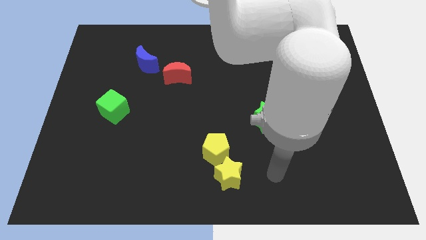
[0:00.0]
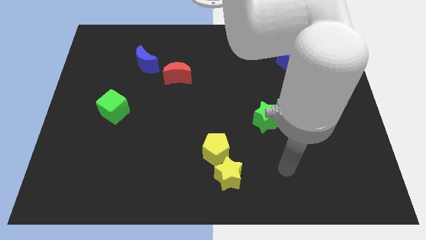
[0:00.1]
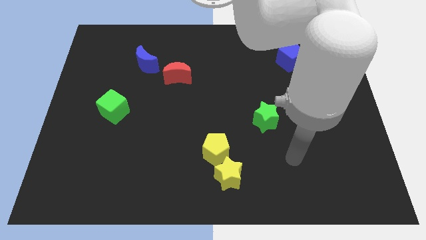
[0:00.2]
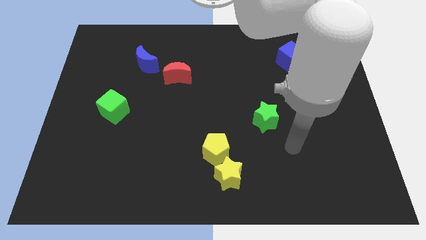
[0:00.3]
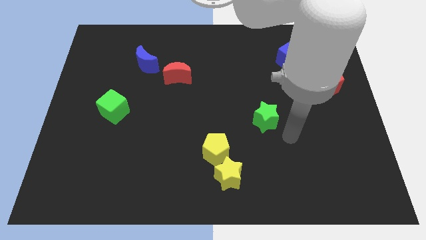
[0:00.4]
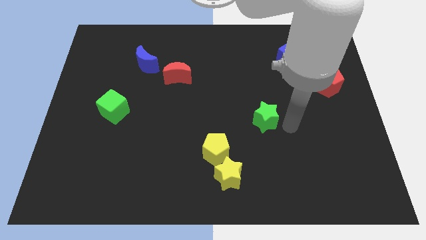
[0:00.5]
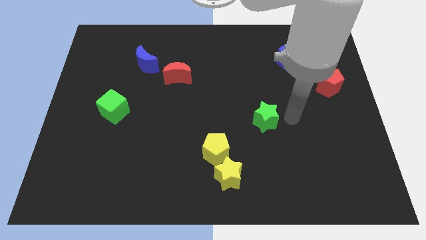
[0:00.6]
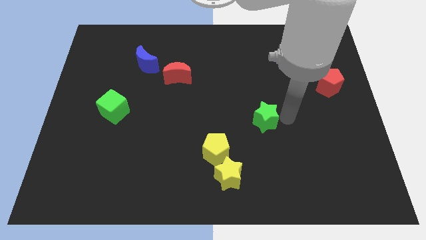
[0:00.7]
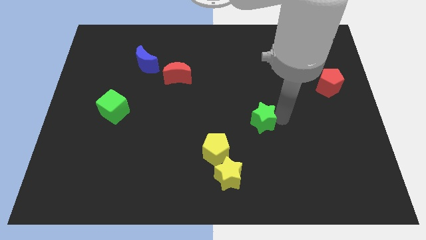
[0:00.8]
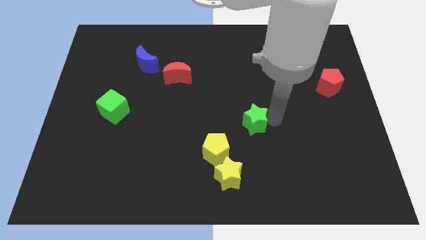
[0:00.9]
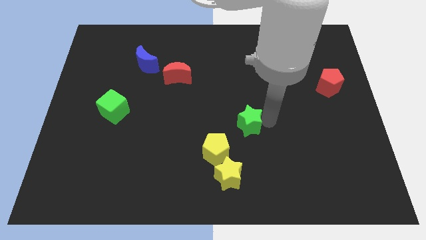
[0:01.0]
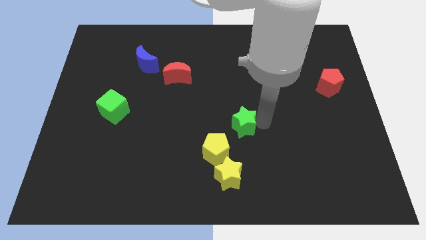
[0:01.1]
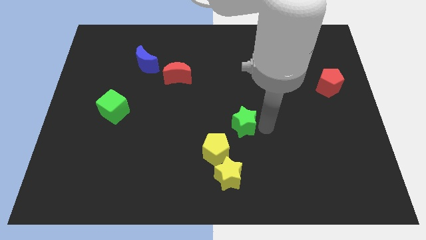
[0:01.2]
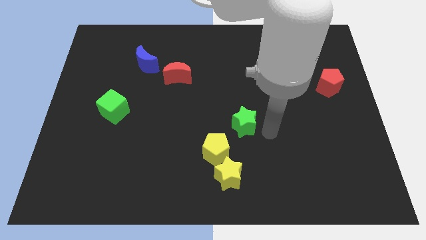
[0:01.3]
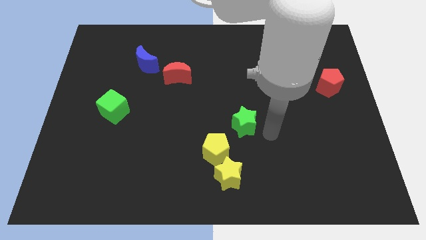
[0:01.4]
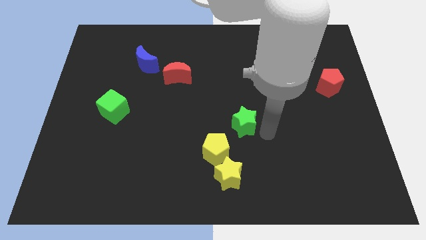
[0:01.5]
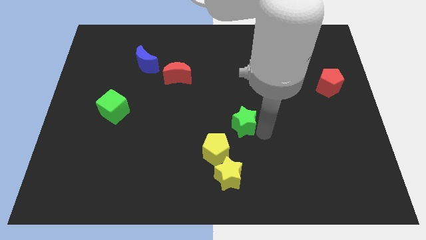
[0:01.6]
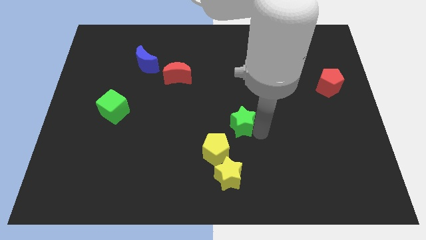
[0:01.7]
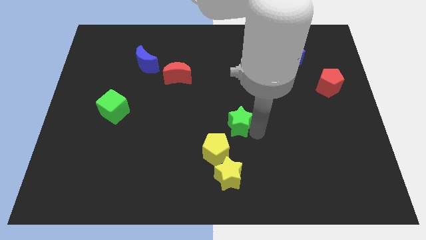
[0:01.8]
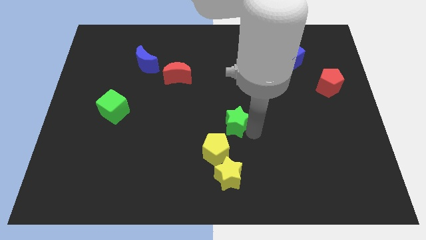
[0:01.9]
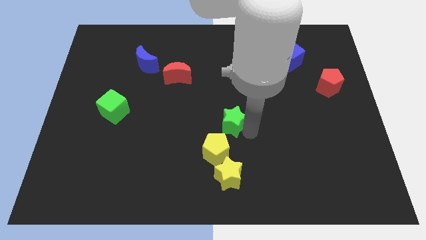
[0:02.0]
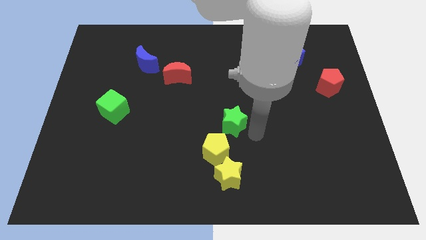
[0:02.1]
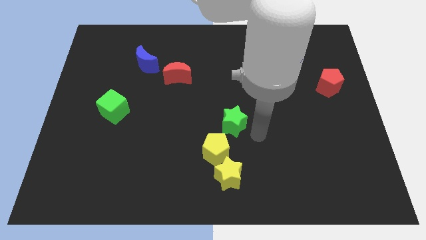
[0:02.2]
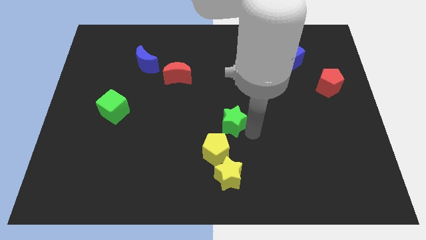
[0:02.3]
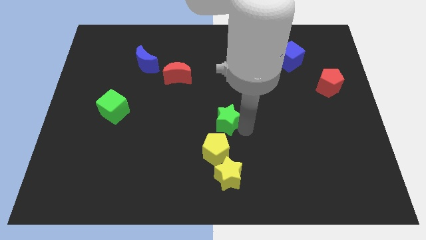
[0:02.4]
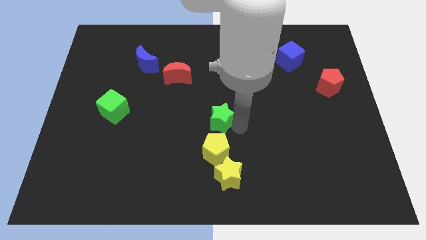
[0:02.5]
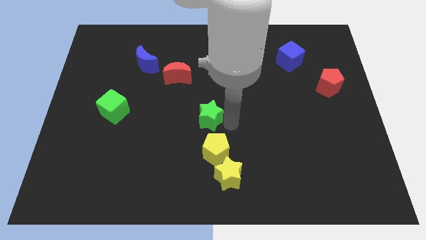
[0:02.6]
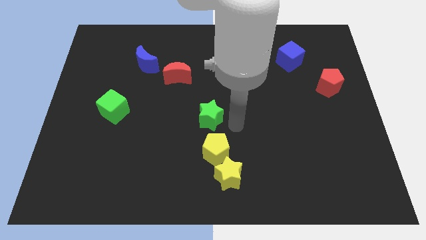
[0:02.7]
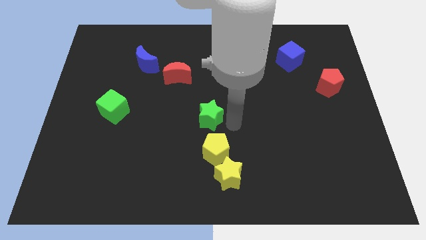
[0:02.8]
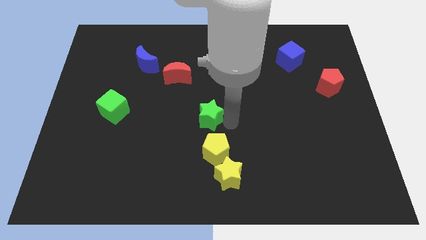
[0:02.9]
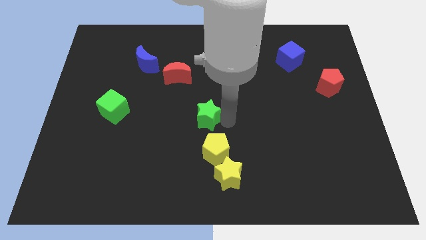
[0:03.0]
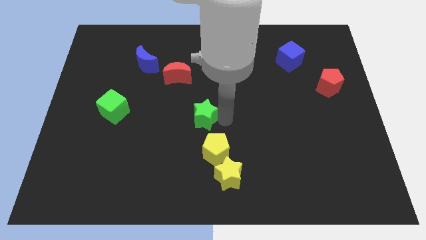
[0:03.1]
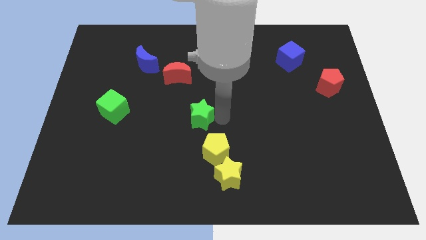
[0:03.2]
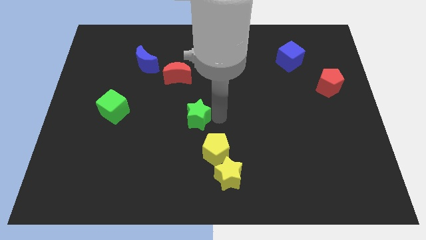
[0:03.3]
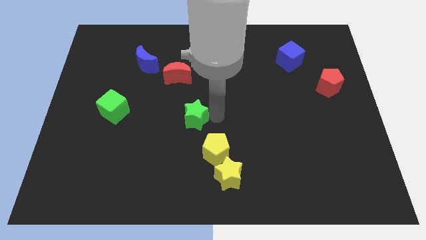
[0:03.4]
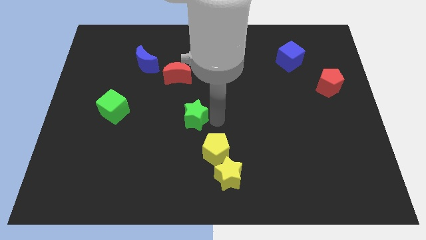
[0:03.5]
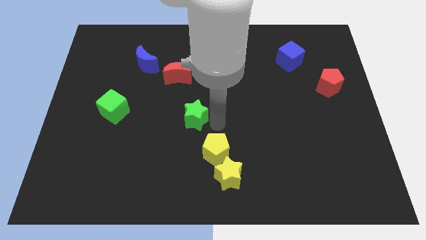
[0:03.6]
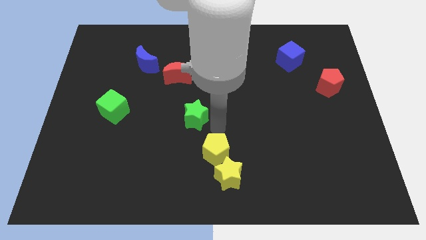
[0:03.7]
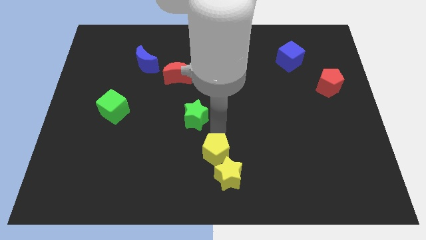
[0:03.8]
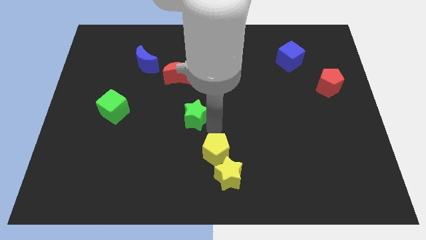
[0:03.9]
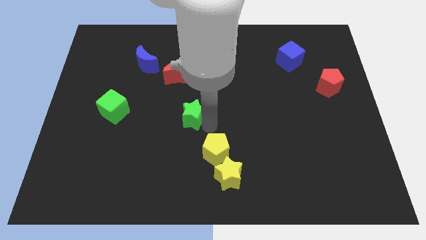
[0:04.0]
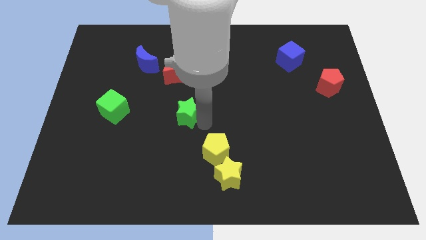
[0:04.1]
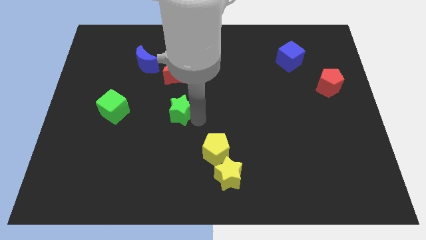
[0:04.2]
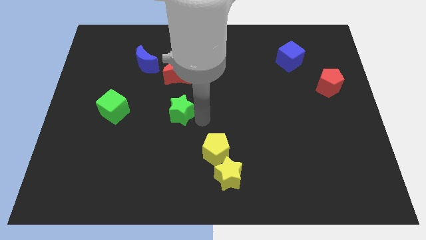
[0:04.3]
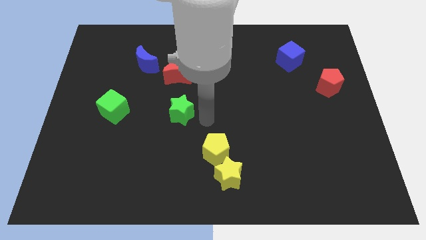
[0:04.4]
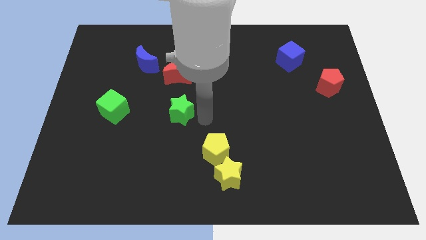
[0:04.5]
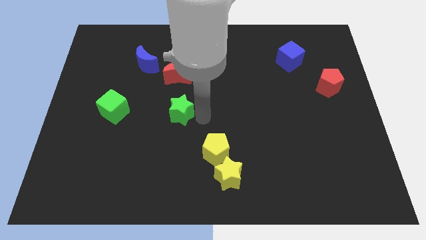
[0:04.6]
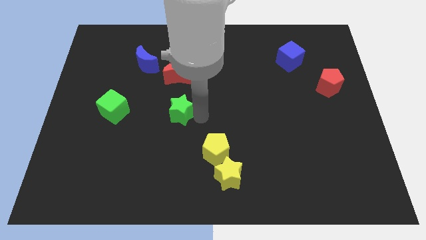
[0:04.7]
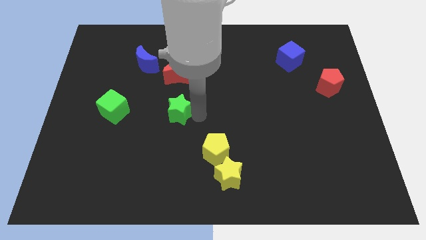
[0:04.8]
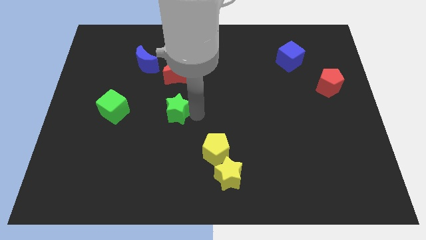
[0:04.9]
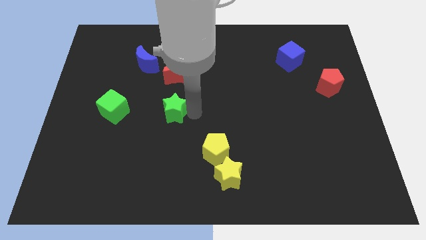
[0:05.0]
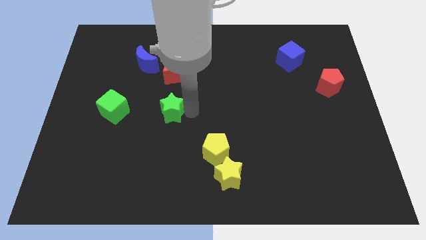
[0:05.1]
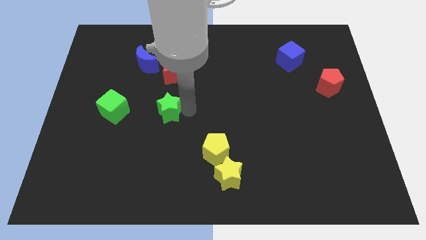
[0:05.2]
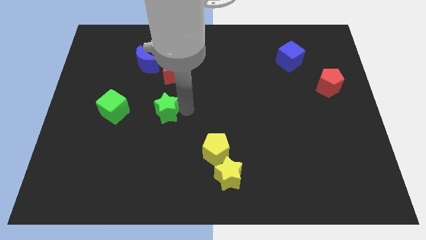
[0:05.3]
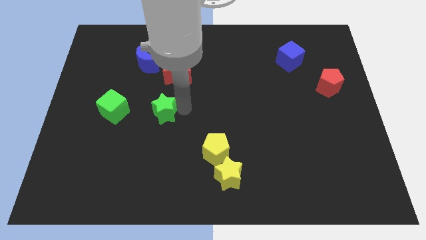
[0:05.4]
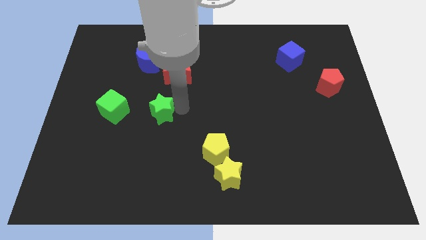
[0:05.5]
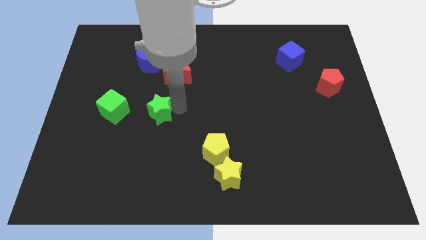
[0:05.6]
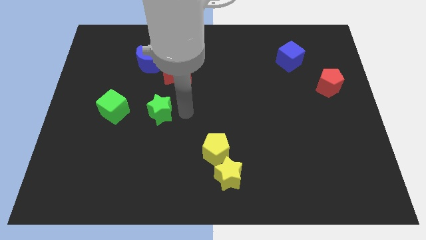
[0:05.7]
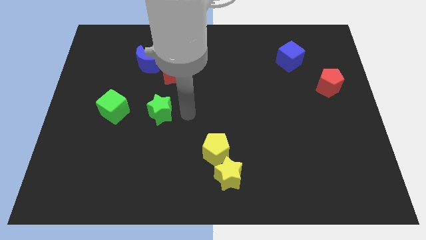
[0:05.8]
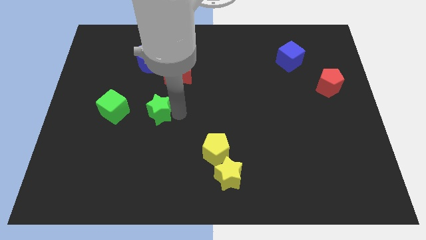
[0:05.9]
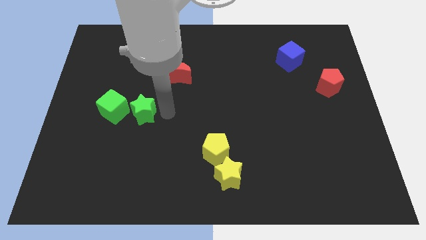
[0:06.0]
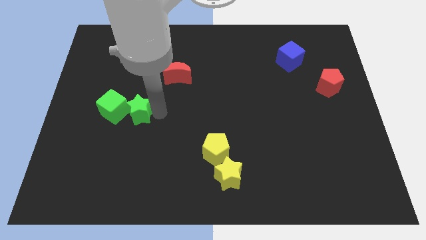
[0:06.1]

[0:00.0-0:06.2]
slide the green star to the green cube

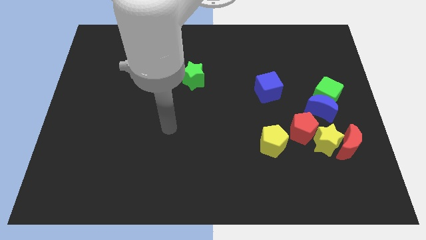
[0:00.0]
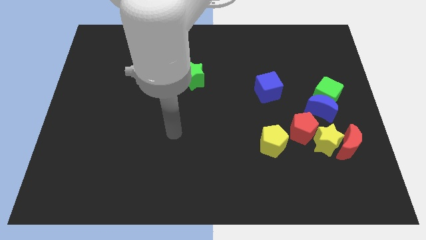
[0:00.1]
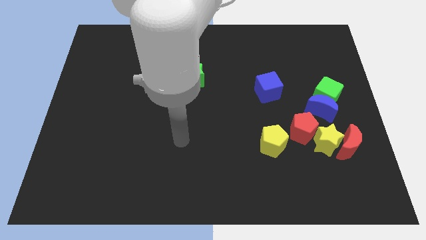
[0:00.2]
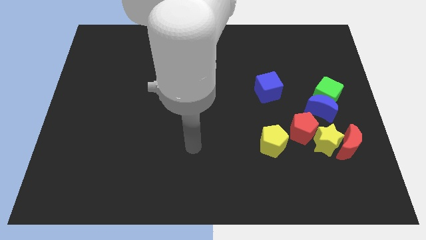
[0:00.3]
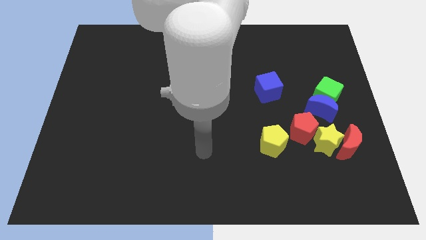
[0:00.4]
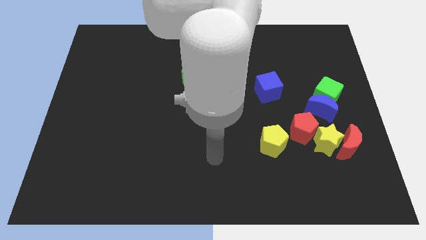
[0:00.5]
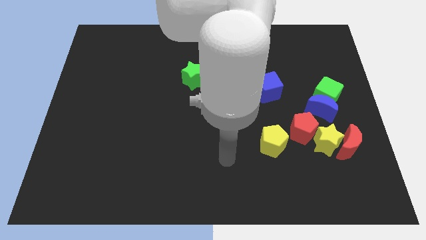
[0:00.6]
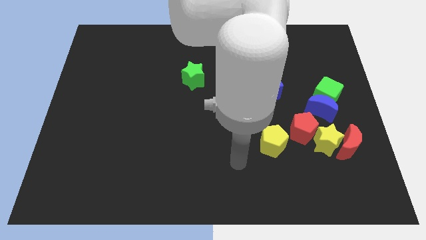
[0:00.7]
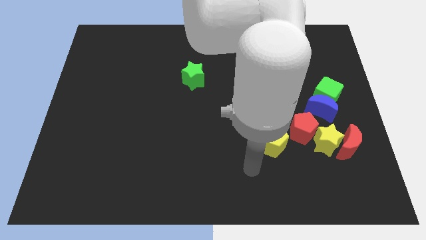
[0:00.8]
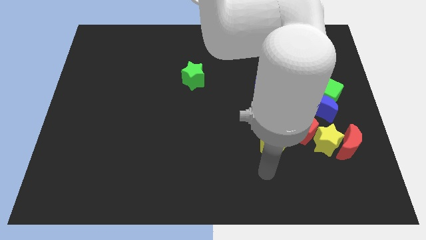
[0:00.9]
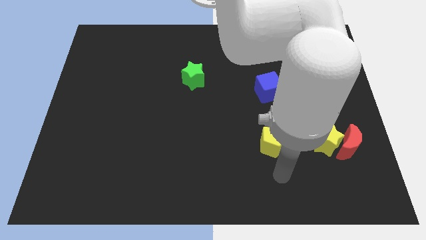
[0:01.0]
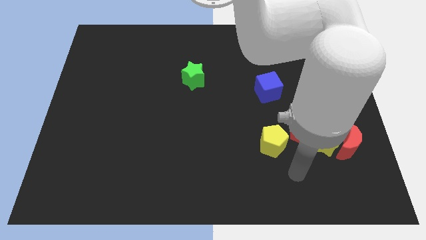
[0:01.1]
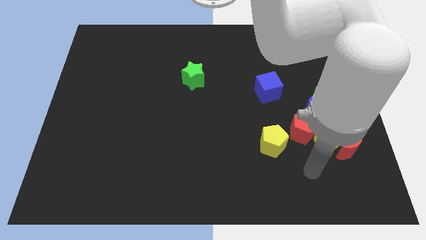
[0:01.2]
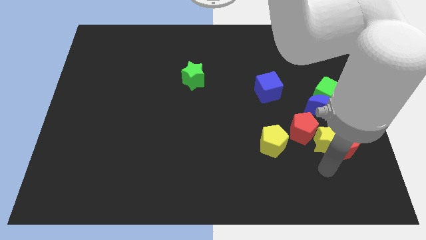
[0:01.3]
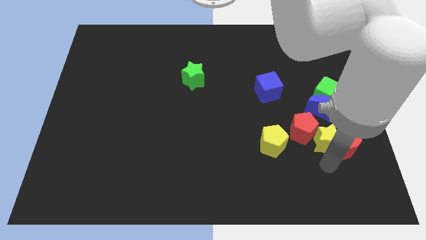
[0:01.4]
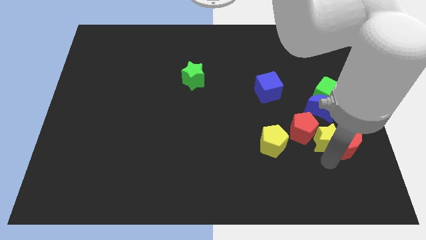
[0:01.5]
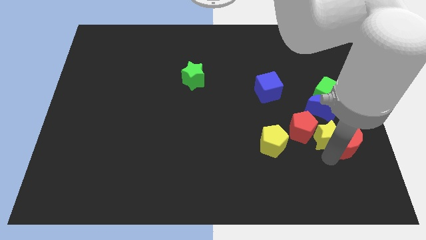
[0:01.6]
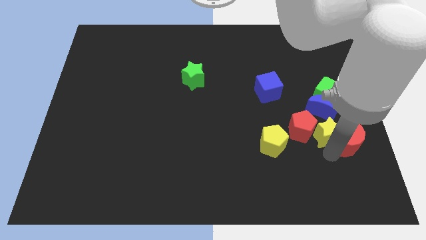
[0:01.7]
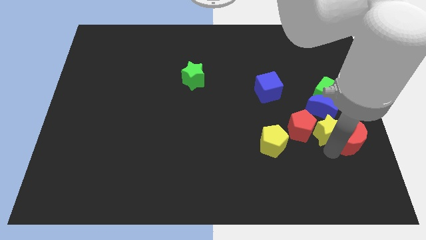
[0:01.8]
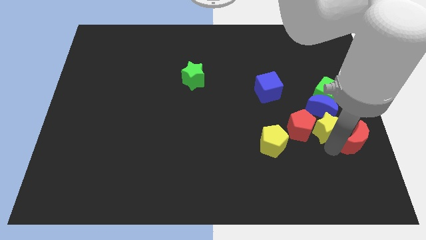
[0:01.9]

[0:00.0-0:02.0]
slide the yellow star to the blue moon
